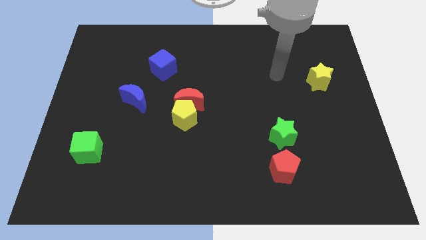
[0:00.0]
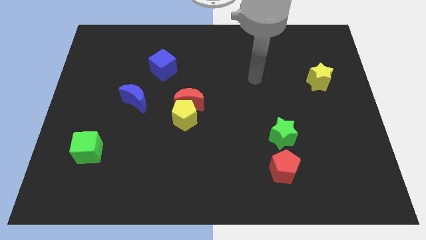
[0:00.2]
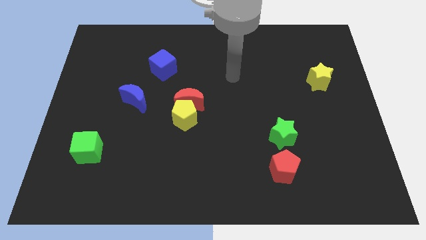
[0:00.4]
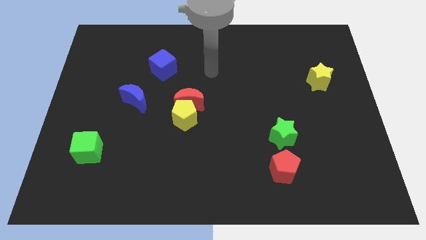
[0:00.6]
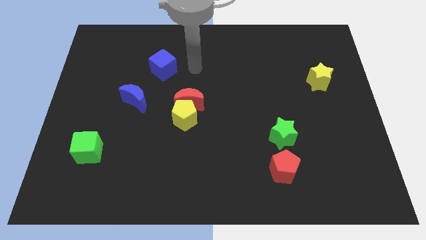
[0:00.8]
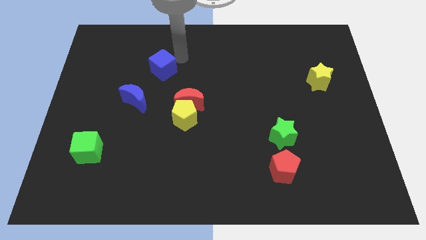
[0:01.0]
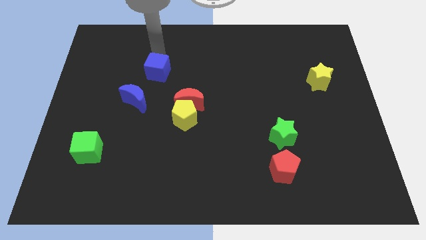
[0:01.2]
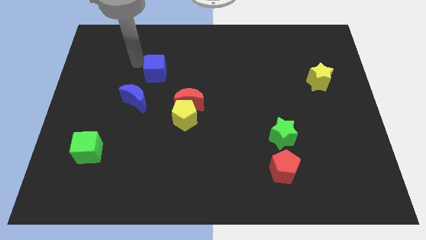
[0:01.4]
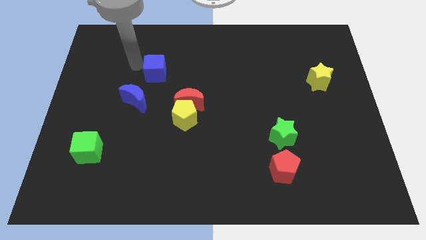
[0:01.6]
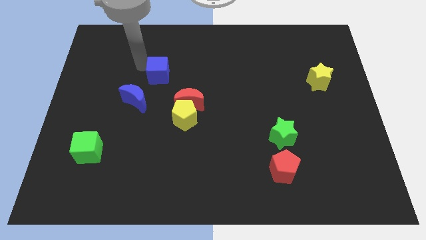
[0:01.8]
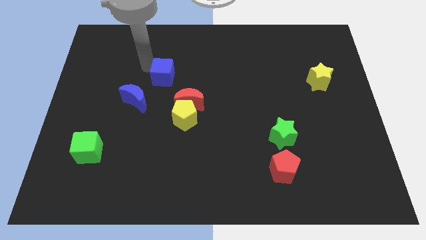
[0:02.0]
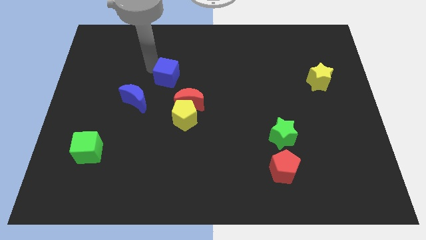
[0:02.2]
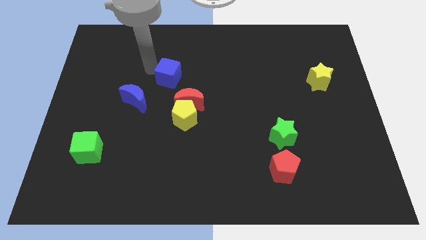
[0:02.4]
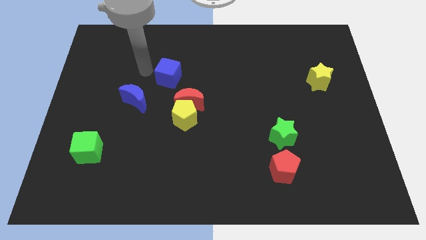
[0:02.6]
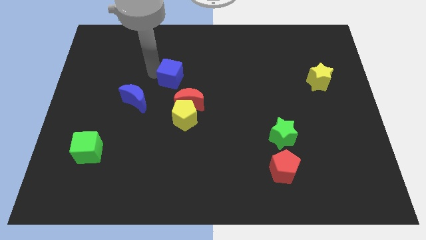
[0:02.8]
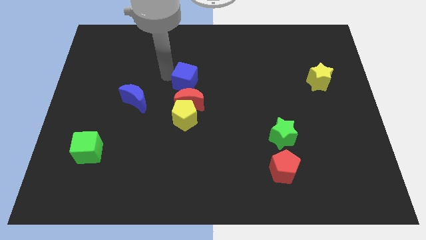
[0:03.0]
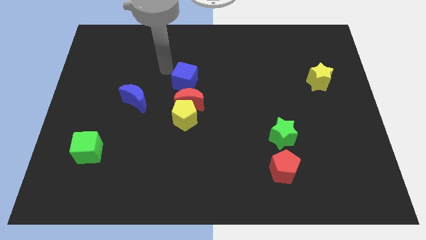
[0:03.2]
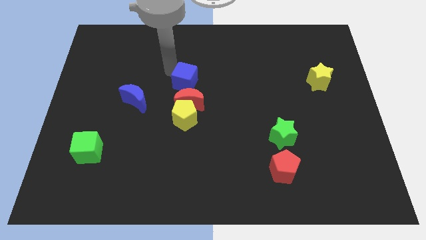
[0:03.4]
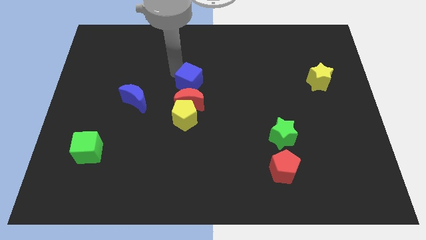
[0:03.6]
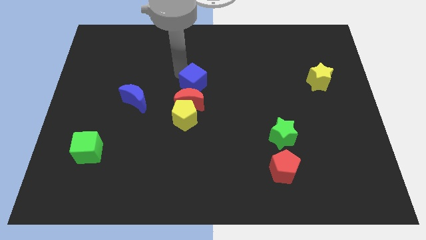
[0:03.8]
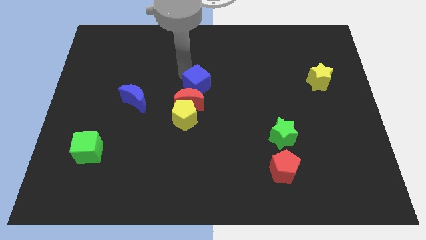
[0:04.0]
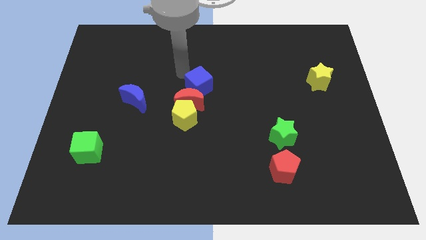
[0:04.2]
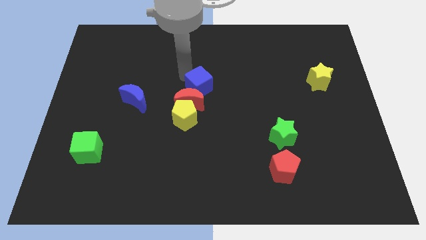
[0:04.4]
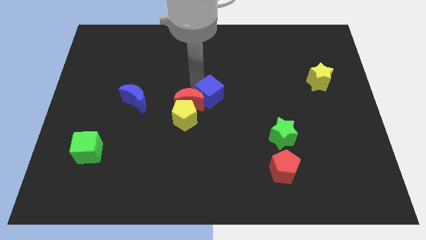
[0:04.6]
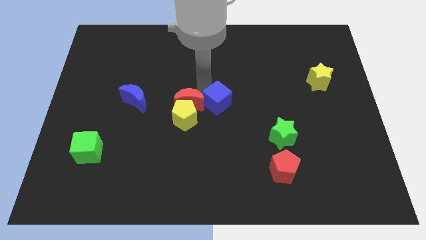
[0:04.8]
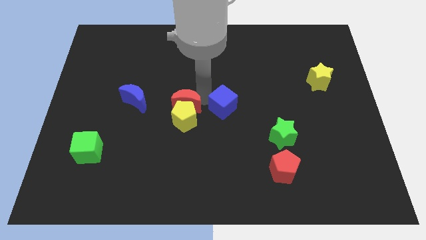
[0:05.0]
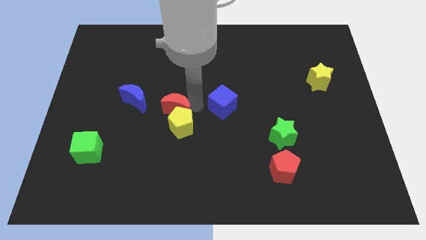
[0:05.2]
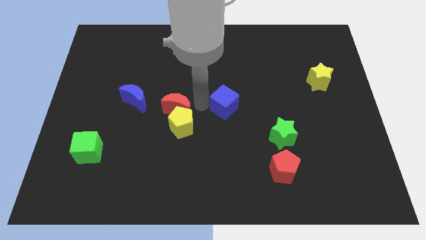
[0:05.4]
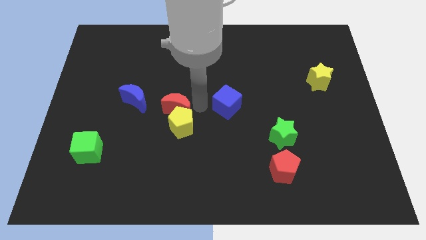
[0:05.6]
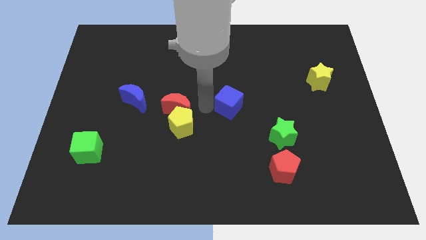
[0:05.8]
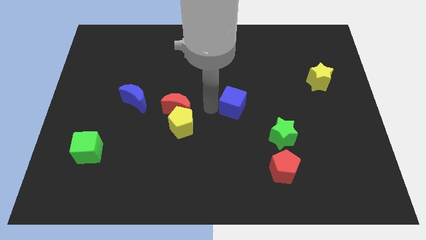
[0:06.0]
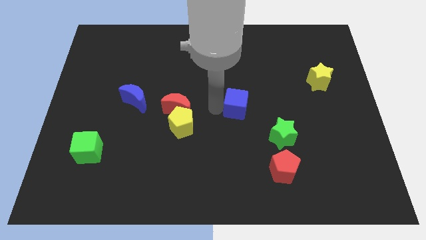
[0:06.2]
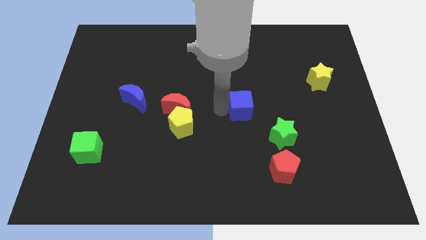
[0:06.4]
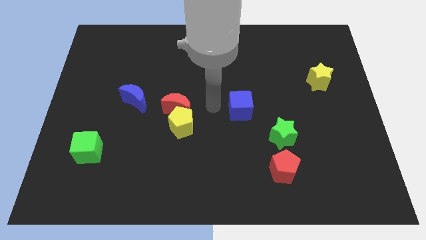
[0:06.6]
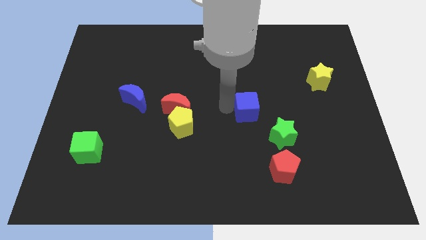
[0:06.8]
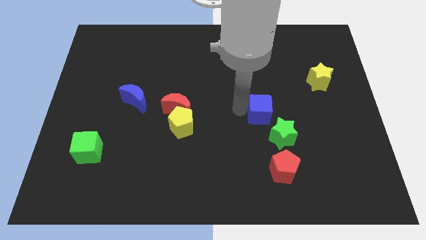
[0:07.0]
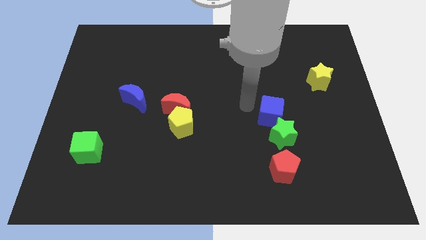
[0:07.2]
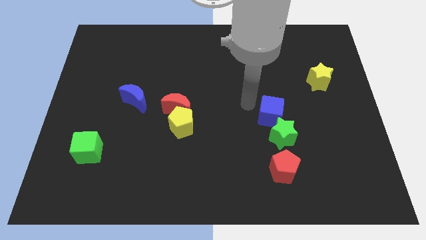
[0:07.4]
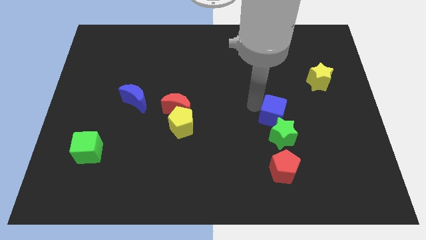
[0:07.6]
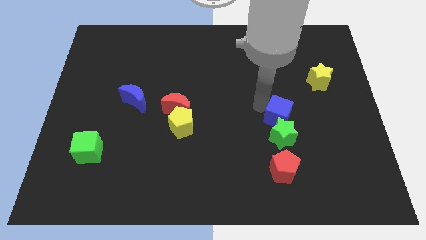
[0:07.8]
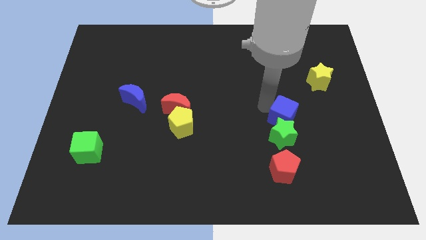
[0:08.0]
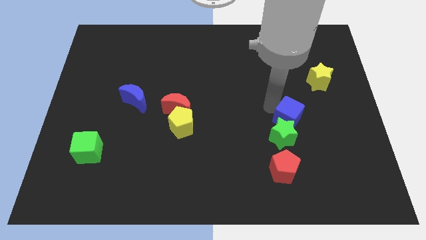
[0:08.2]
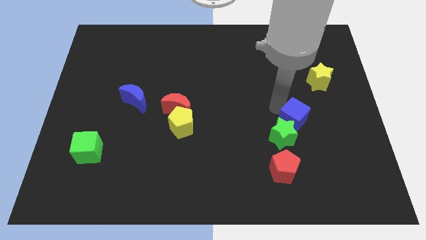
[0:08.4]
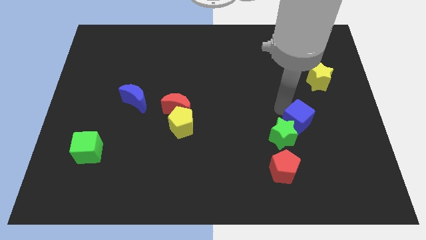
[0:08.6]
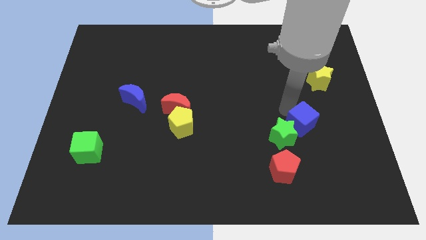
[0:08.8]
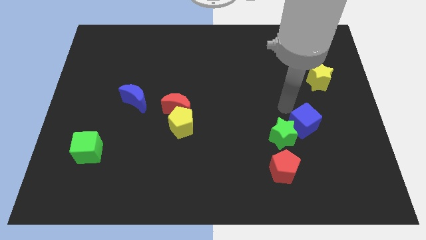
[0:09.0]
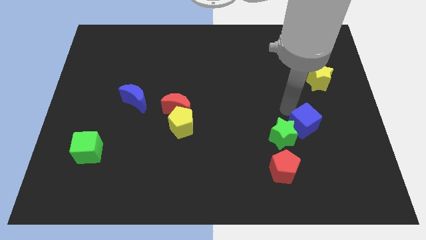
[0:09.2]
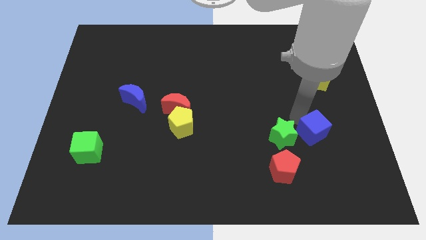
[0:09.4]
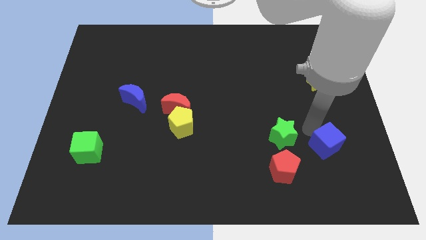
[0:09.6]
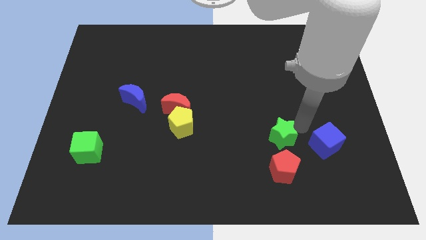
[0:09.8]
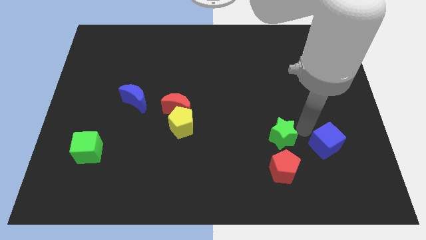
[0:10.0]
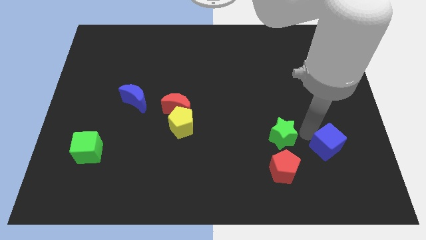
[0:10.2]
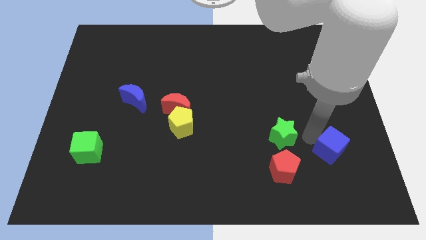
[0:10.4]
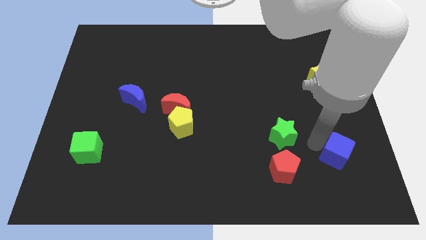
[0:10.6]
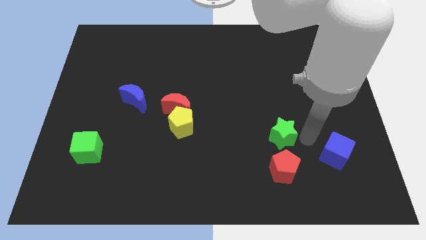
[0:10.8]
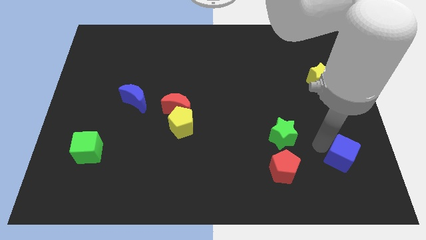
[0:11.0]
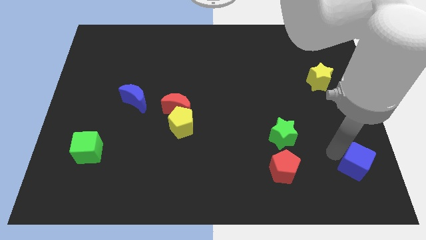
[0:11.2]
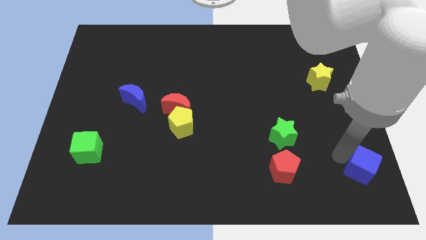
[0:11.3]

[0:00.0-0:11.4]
move the blue cube to the bottom right corner

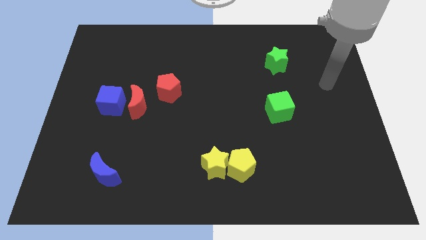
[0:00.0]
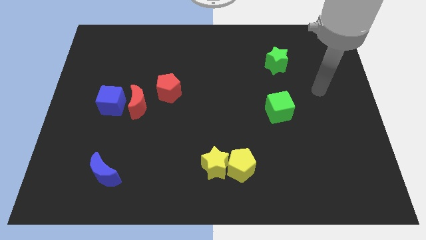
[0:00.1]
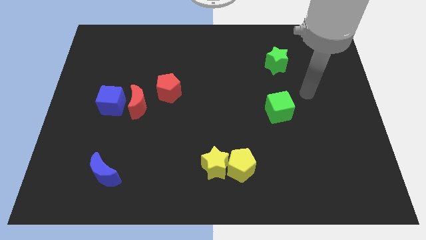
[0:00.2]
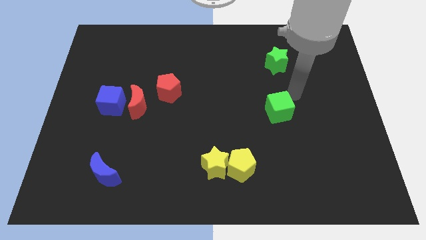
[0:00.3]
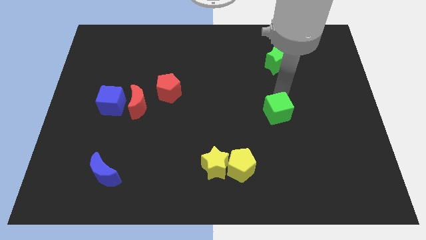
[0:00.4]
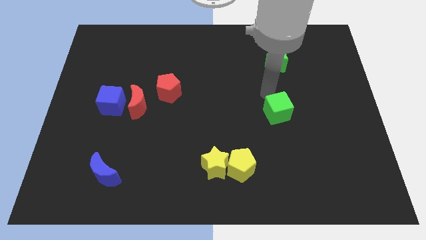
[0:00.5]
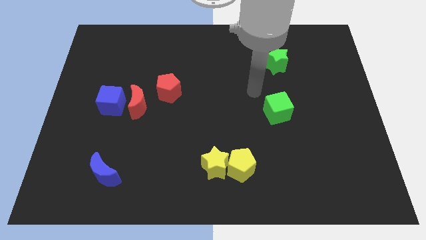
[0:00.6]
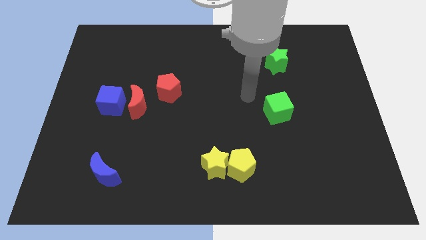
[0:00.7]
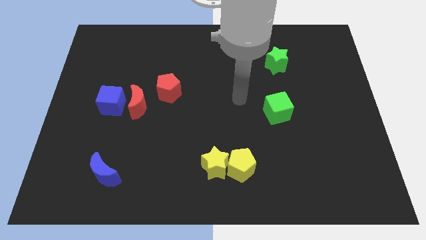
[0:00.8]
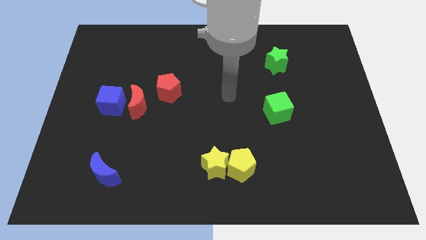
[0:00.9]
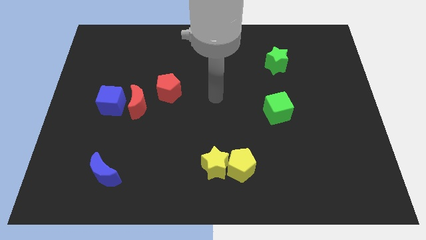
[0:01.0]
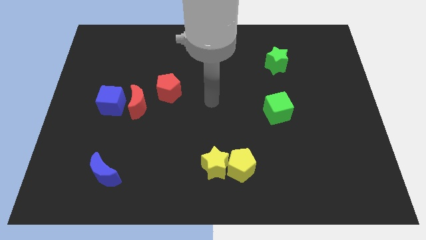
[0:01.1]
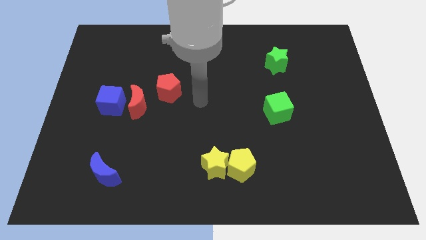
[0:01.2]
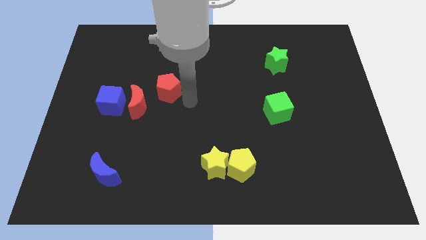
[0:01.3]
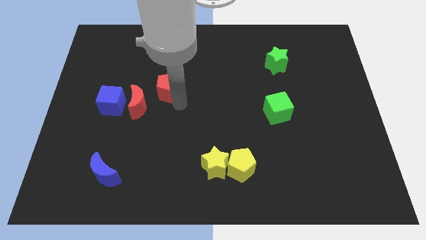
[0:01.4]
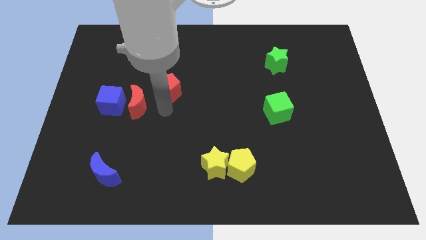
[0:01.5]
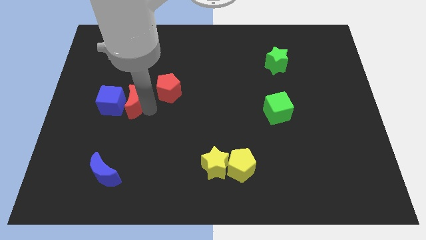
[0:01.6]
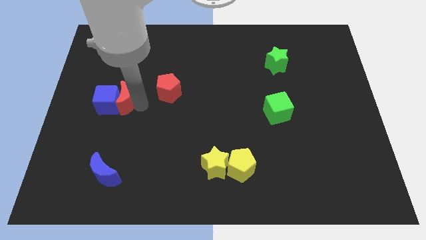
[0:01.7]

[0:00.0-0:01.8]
put the blue cube to the center left
